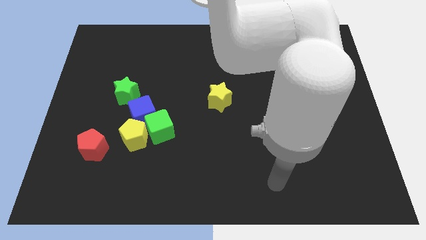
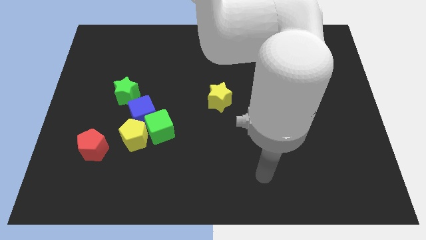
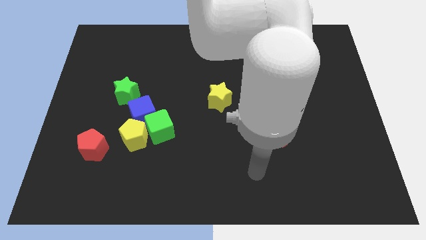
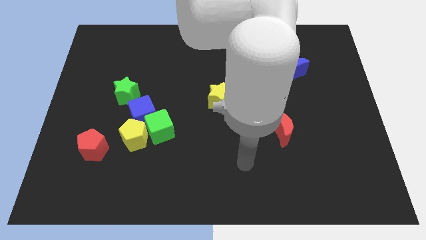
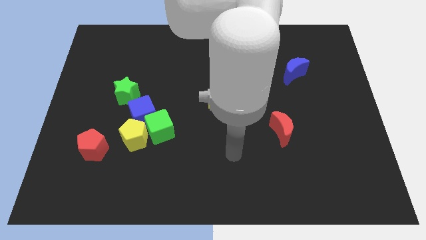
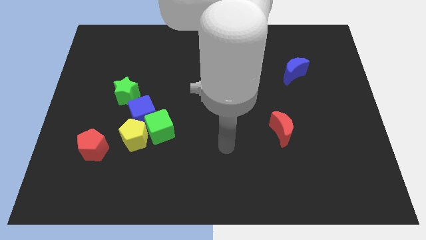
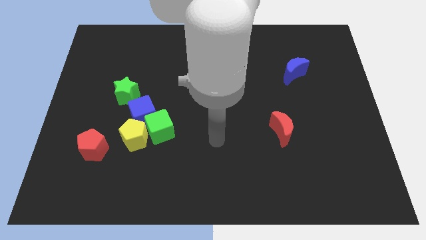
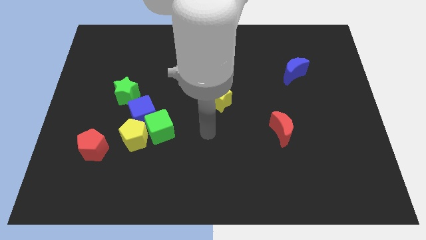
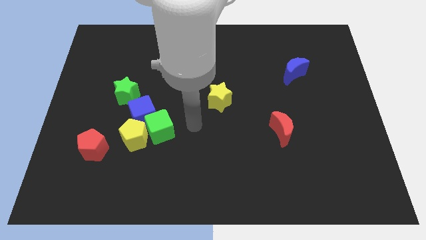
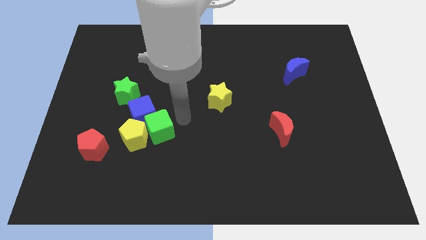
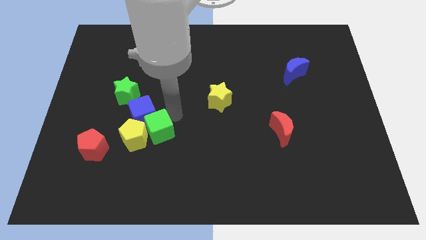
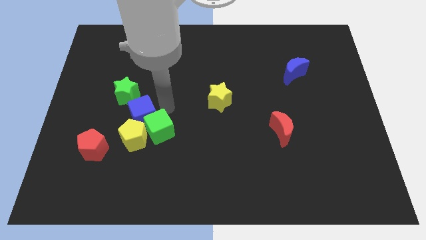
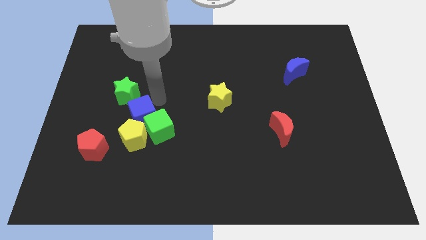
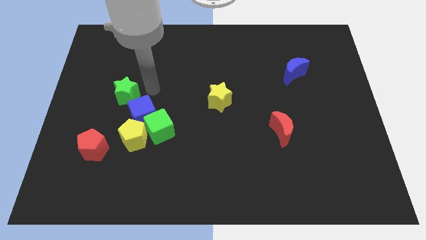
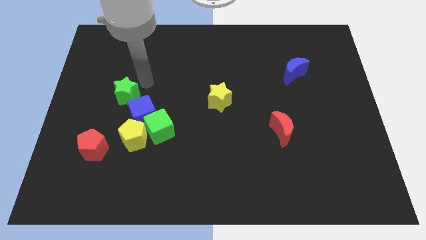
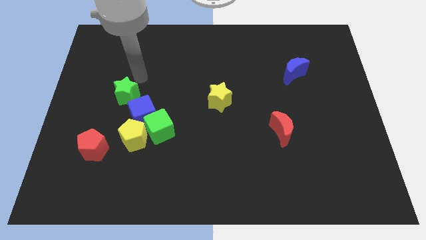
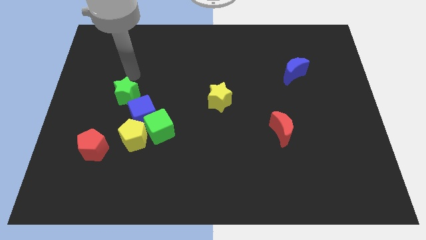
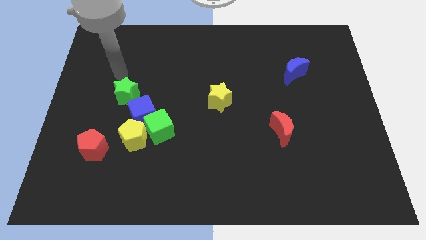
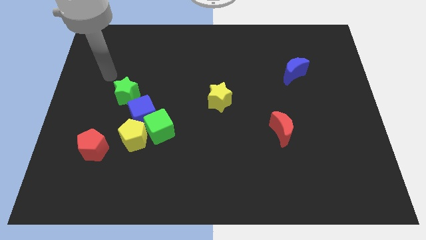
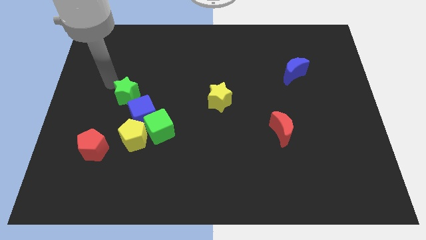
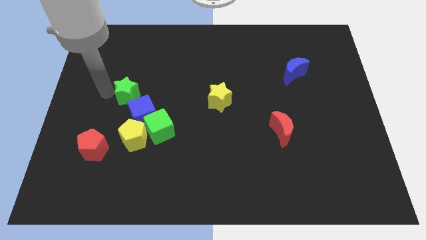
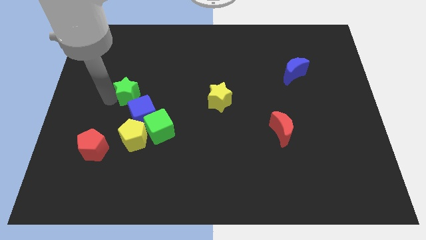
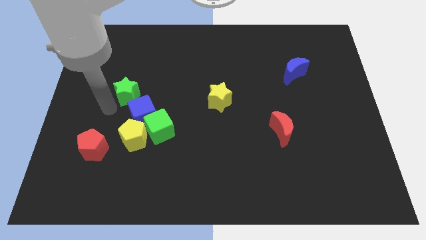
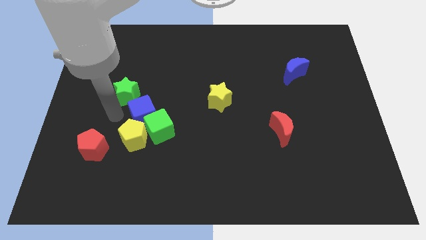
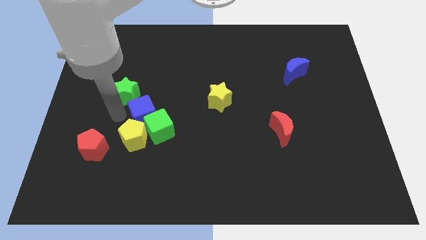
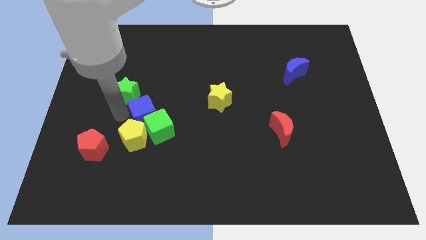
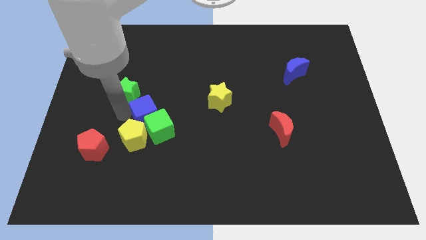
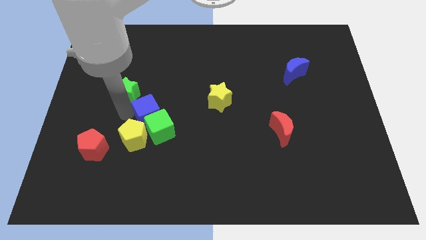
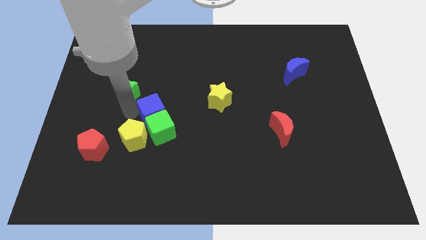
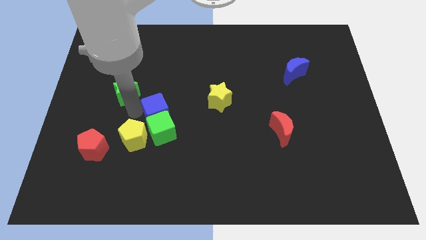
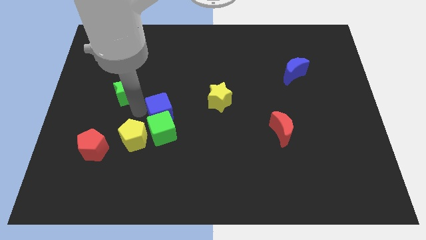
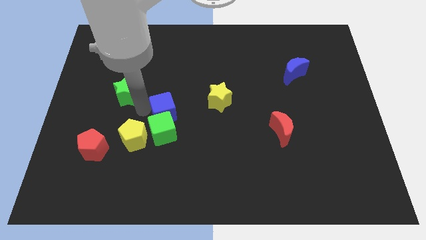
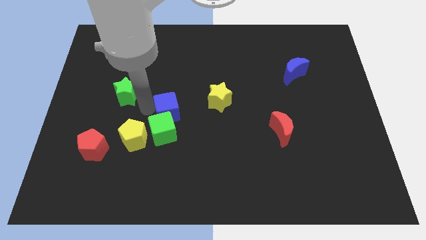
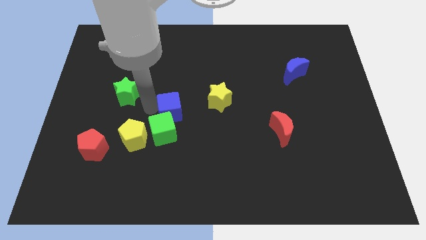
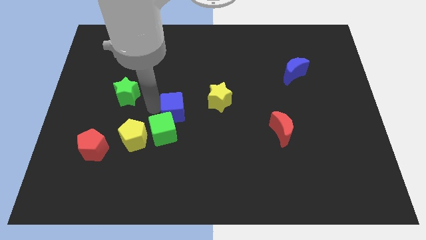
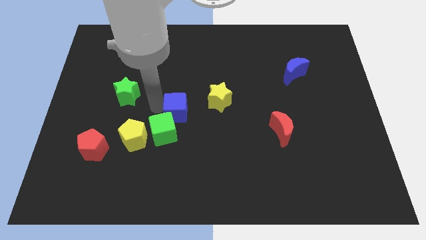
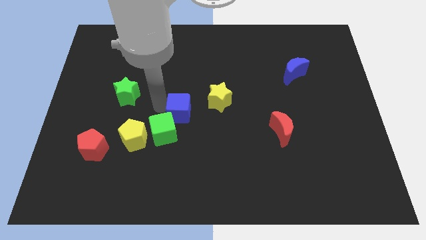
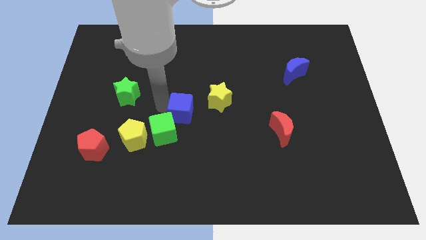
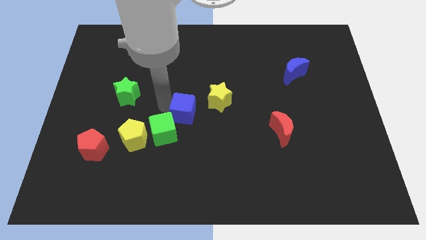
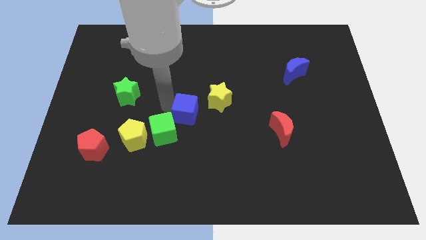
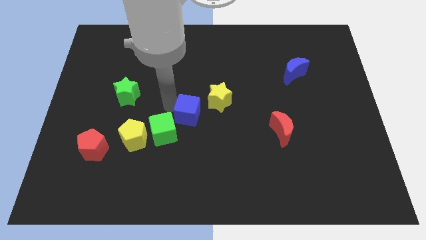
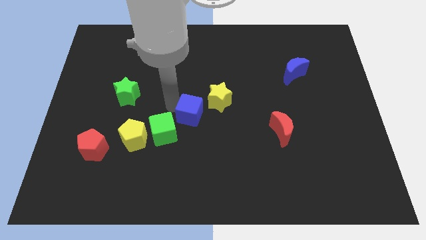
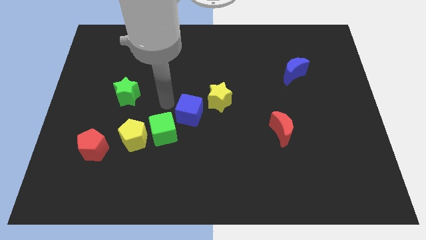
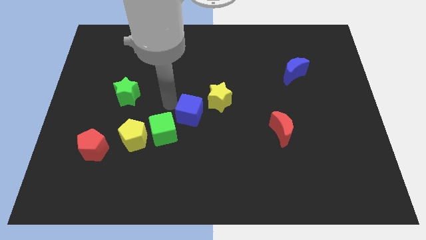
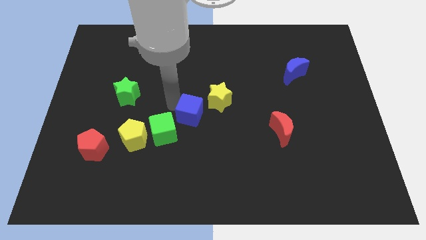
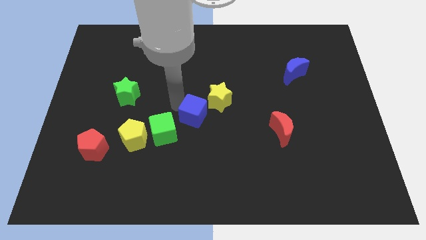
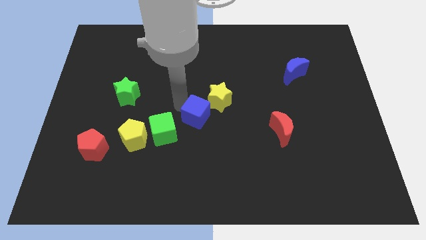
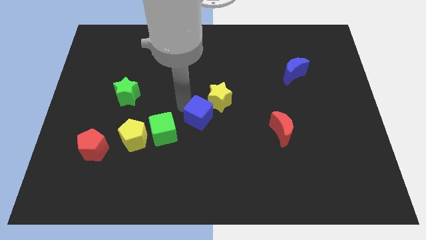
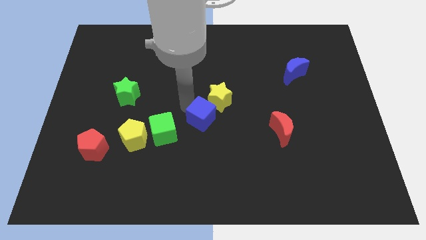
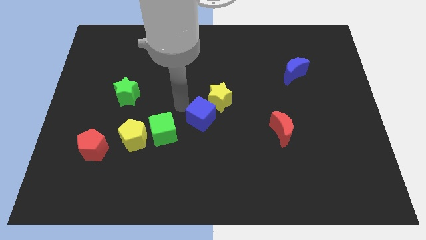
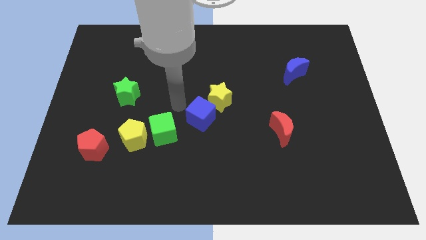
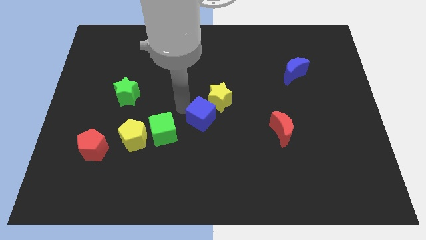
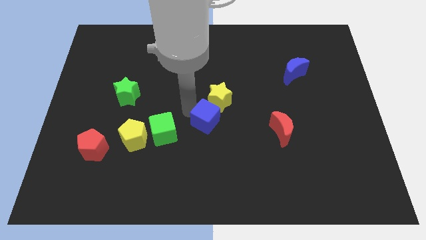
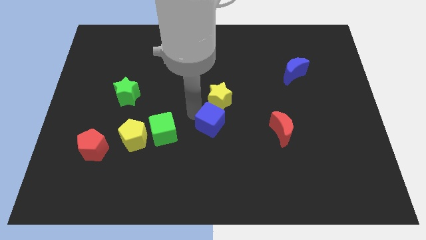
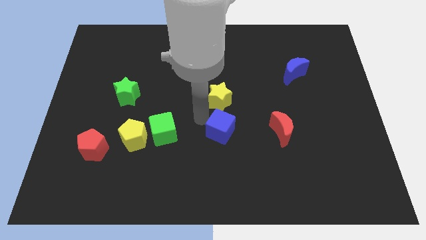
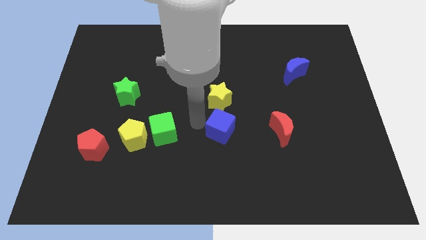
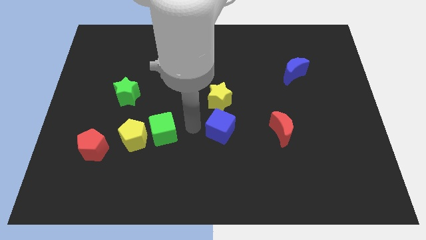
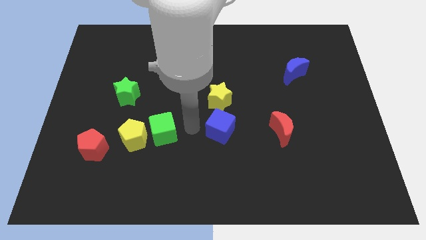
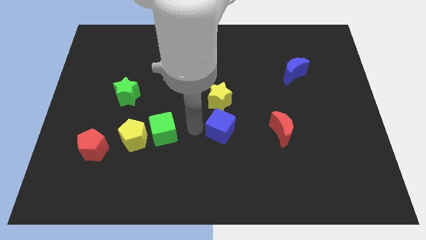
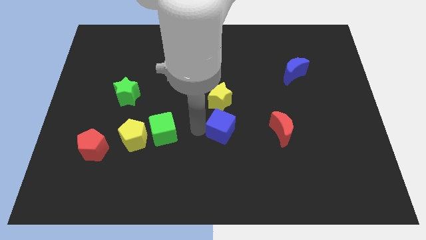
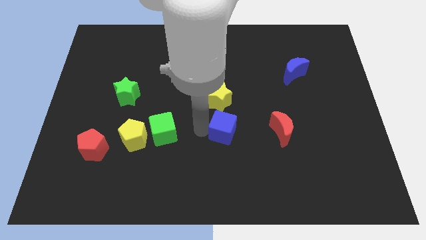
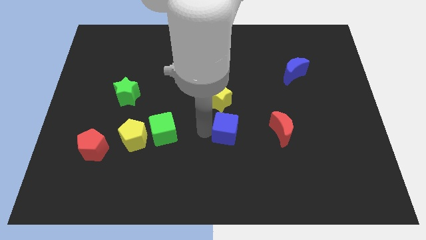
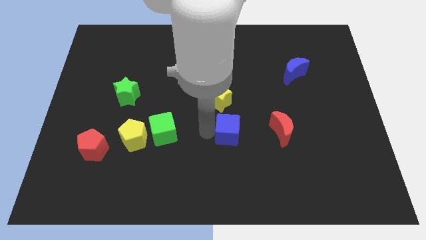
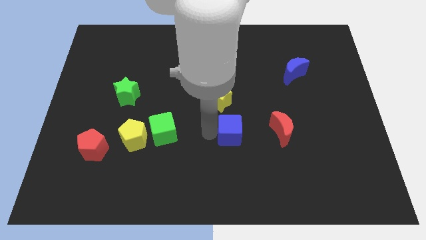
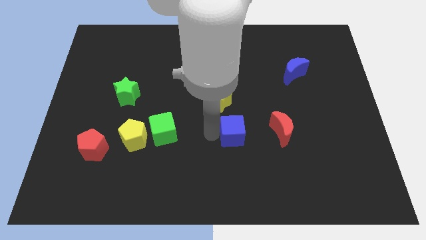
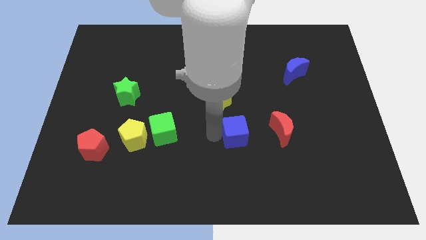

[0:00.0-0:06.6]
slide the blue cube right

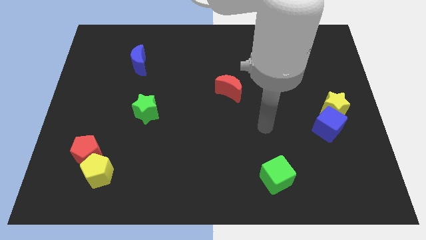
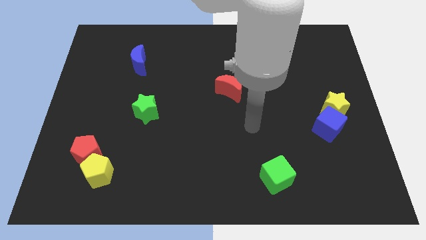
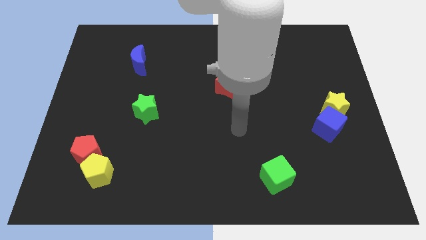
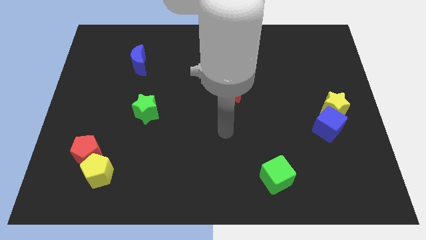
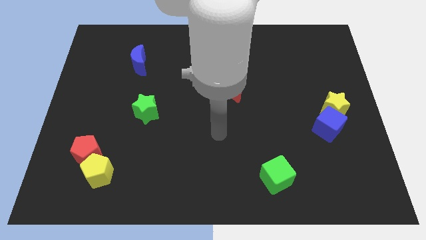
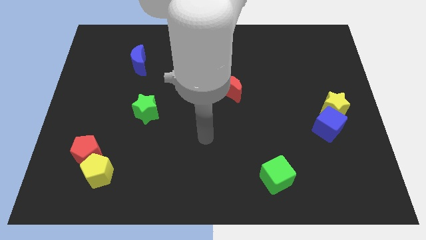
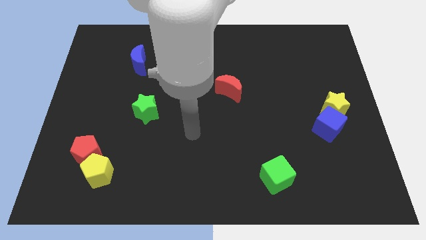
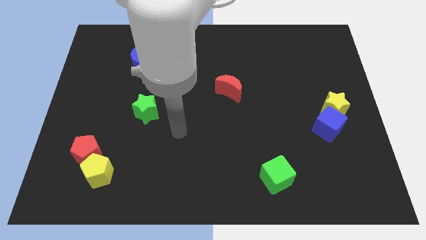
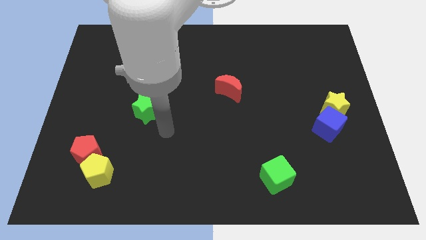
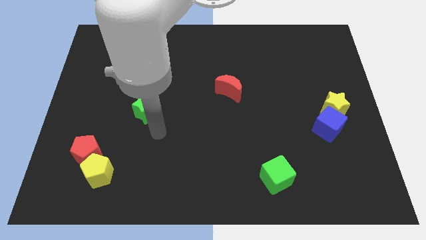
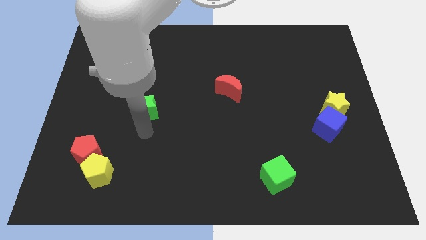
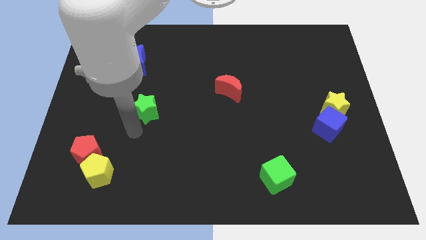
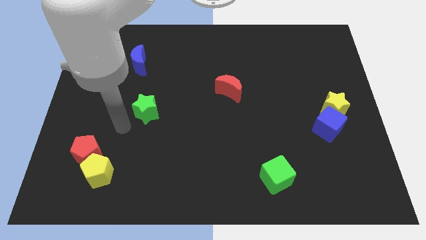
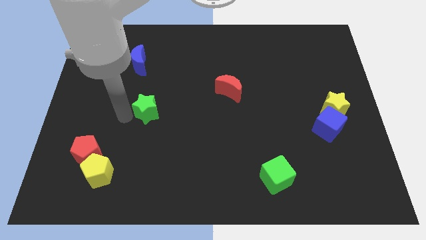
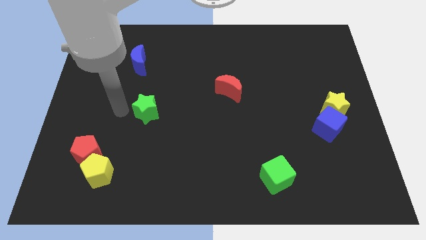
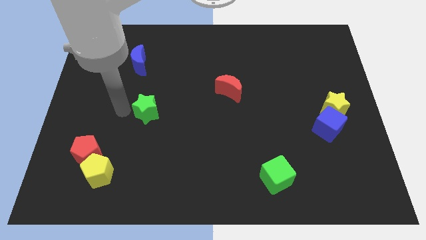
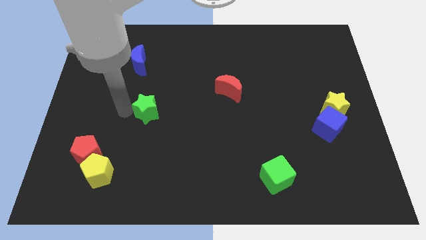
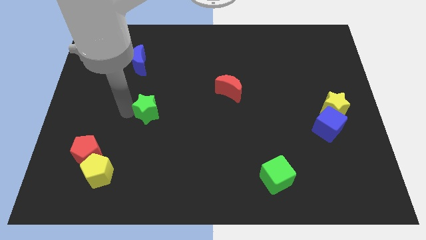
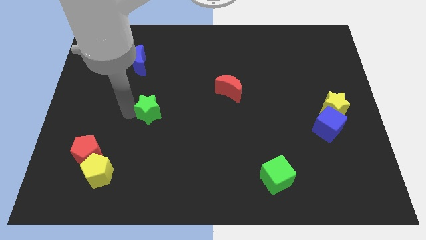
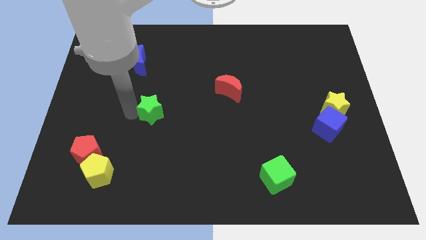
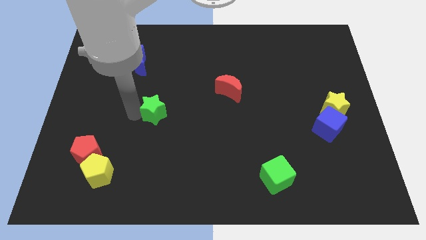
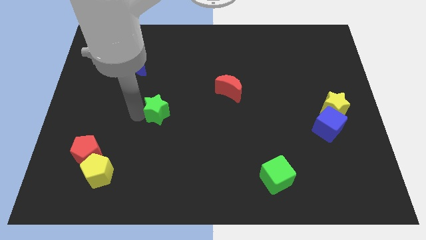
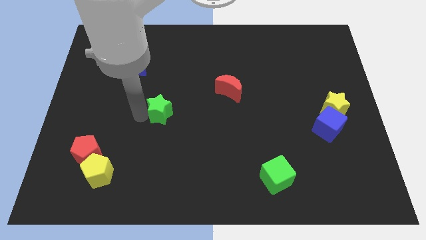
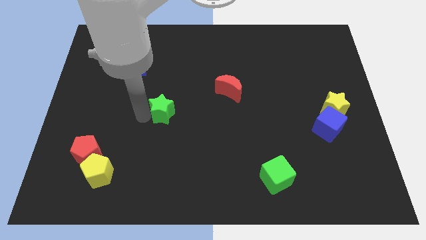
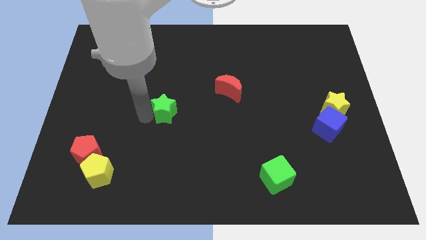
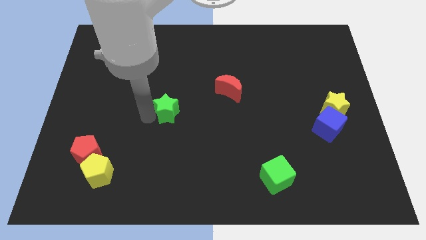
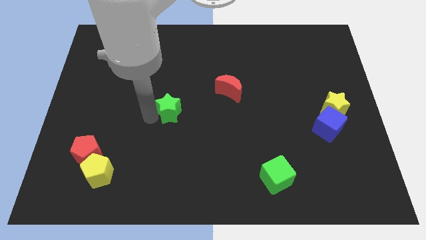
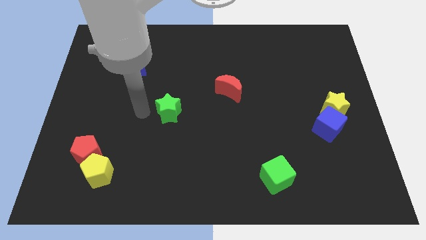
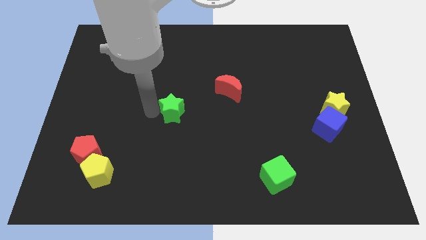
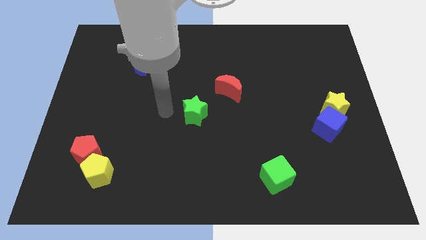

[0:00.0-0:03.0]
move the green star somewhat to the right
